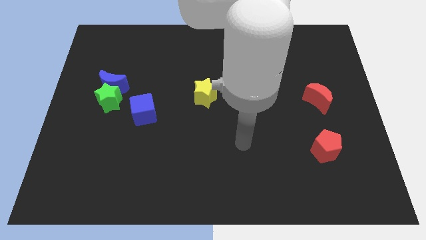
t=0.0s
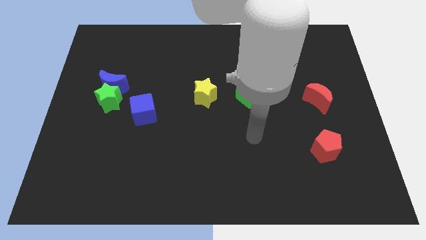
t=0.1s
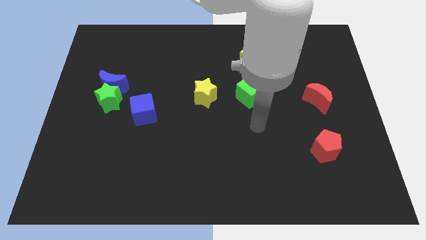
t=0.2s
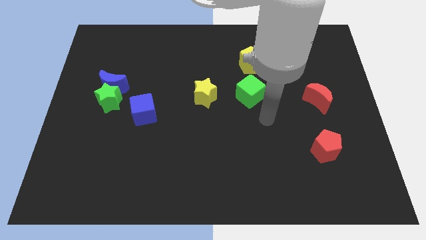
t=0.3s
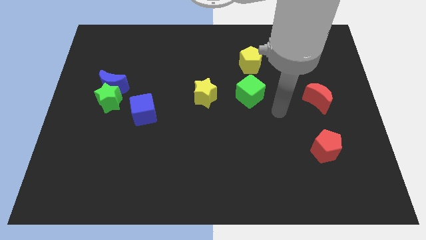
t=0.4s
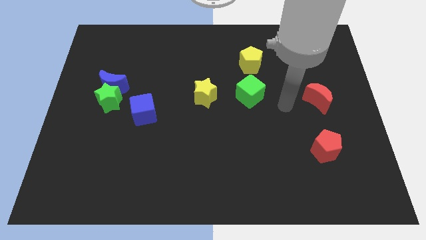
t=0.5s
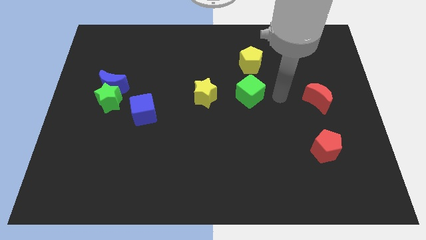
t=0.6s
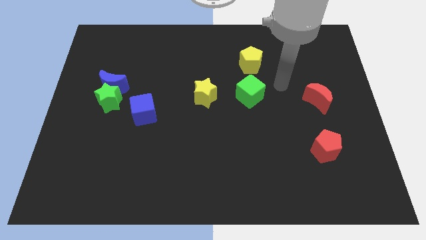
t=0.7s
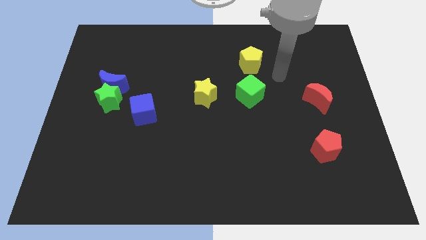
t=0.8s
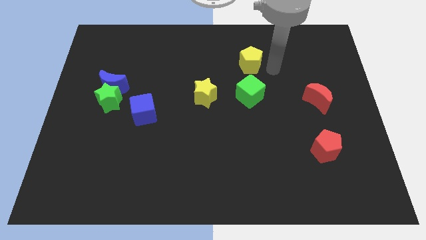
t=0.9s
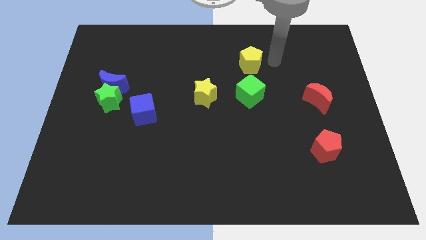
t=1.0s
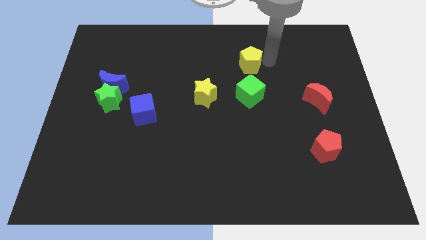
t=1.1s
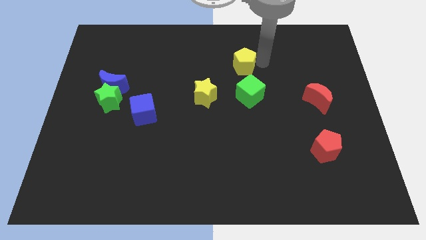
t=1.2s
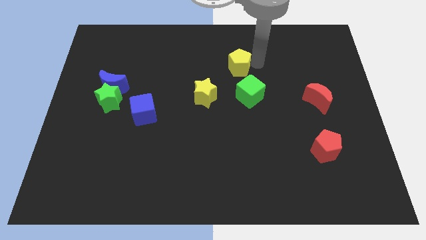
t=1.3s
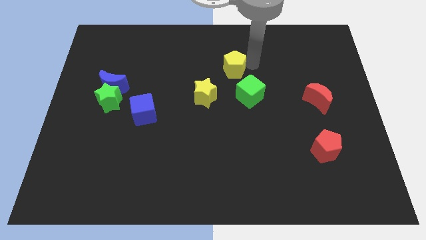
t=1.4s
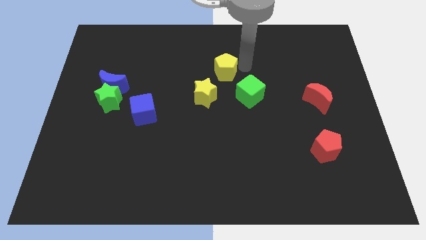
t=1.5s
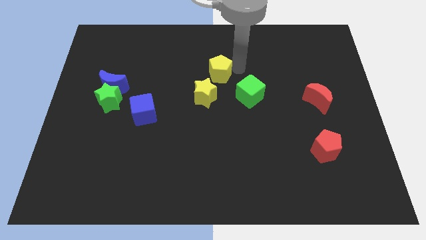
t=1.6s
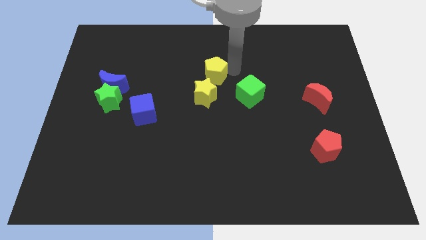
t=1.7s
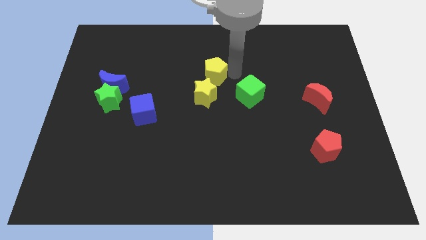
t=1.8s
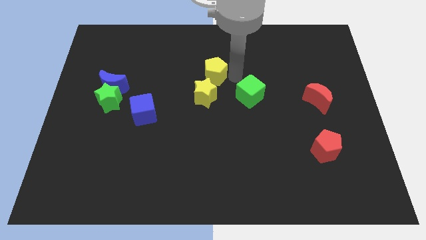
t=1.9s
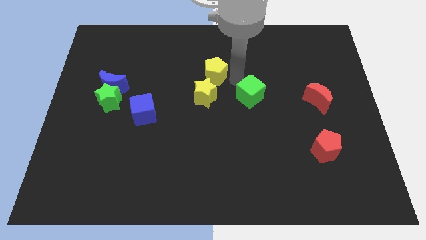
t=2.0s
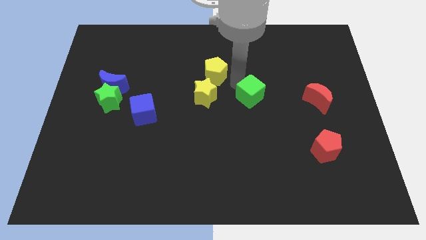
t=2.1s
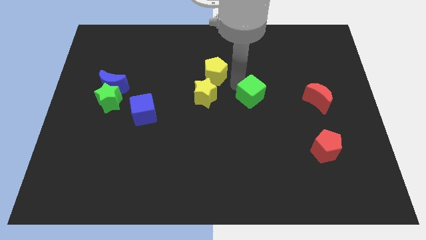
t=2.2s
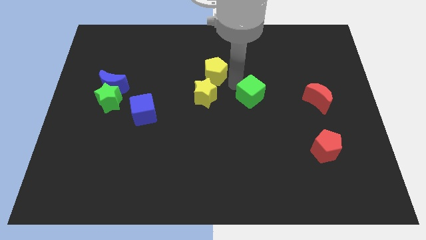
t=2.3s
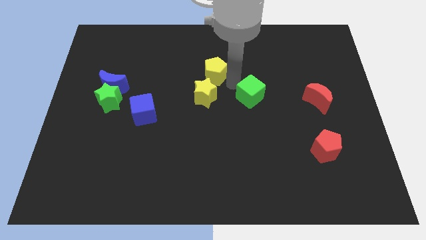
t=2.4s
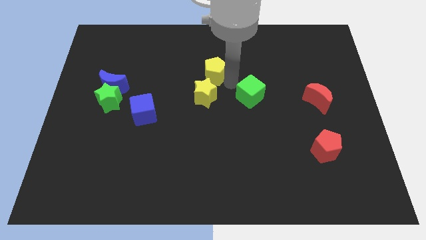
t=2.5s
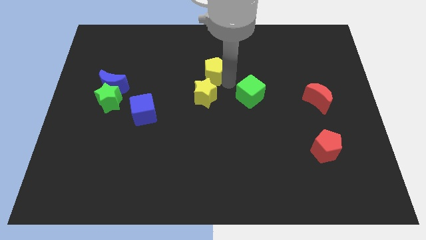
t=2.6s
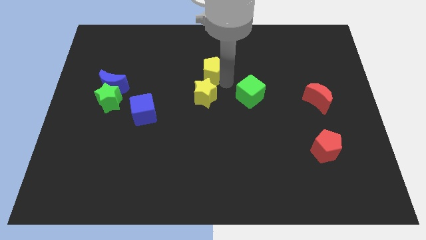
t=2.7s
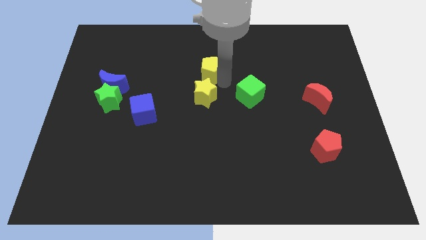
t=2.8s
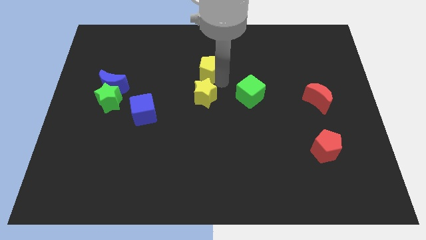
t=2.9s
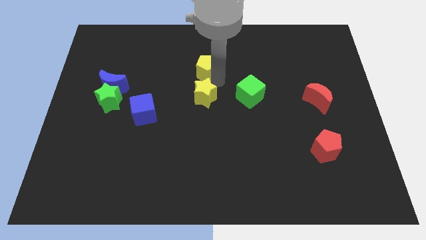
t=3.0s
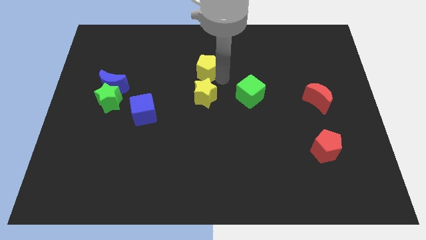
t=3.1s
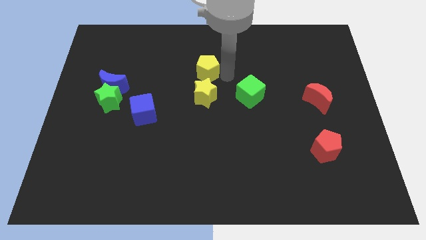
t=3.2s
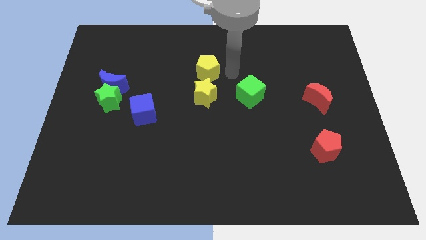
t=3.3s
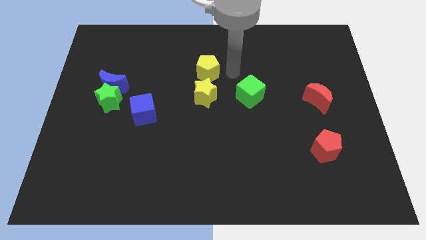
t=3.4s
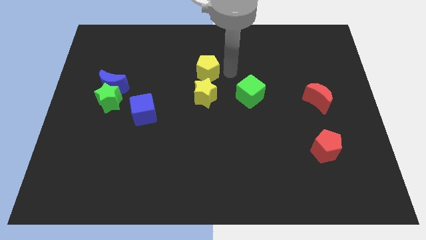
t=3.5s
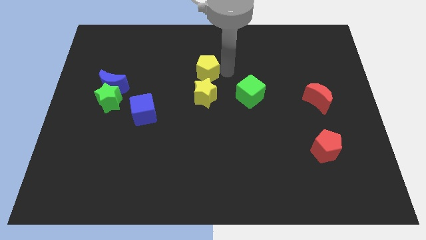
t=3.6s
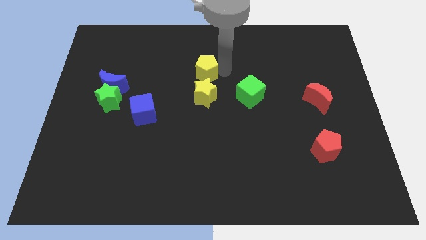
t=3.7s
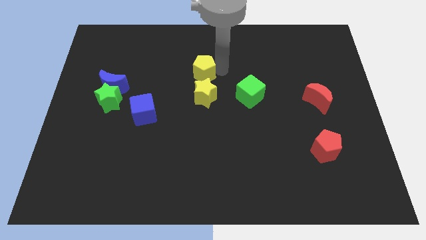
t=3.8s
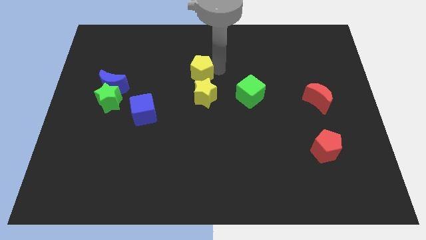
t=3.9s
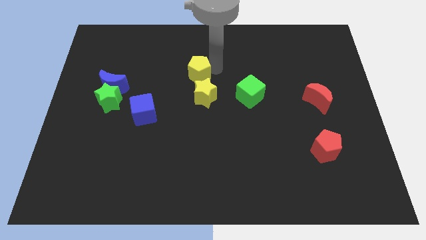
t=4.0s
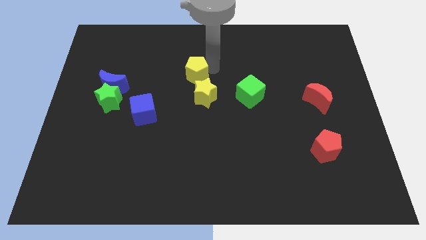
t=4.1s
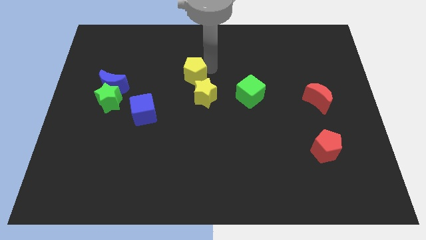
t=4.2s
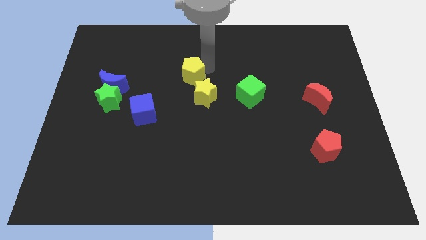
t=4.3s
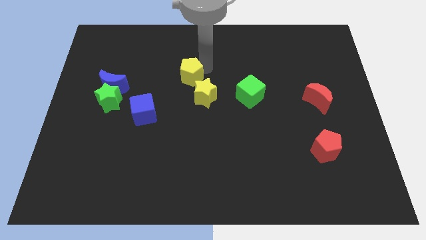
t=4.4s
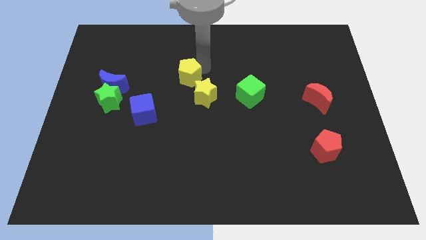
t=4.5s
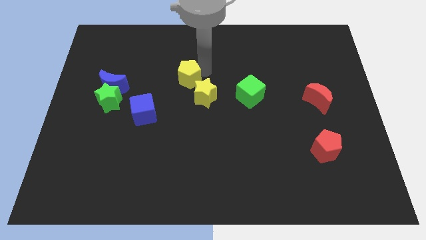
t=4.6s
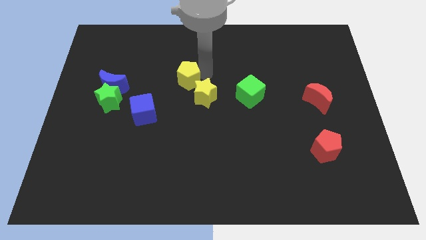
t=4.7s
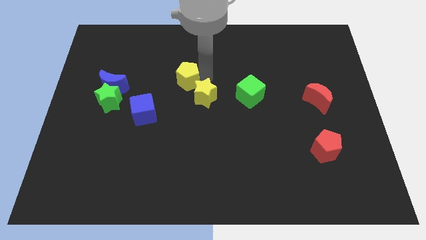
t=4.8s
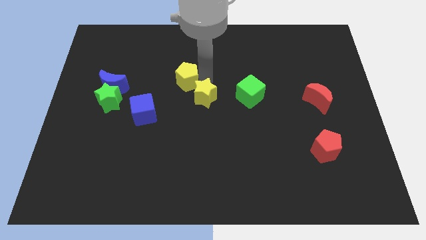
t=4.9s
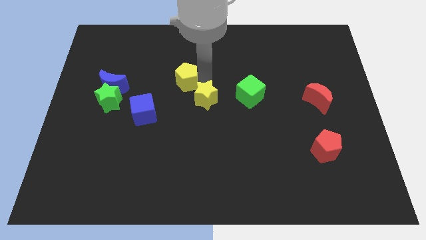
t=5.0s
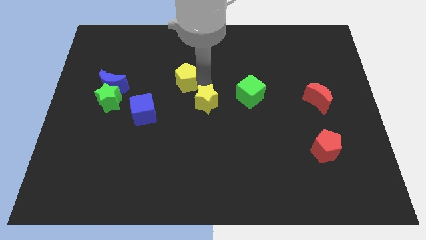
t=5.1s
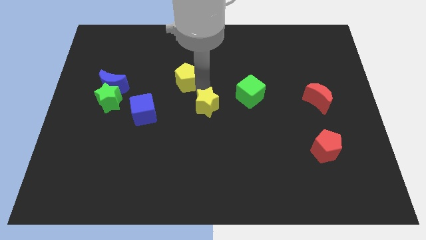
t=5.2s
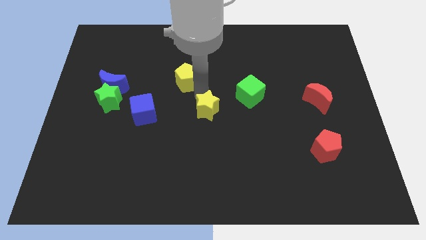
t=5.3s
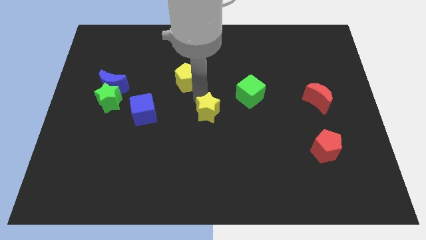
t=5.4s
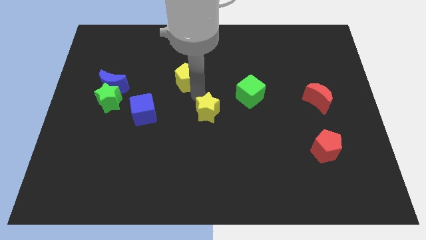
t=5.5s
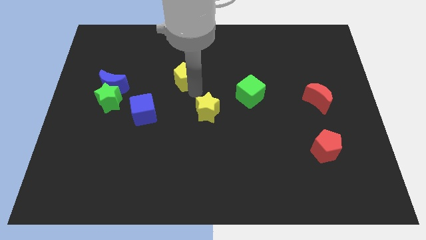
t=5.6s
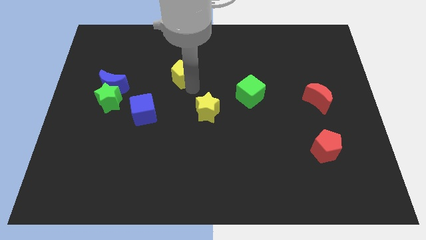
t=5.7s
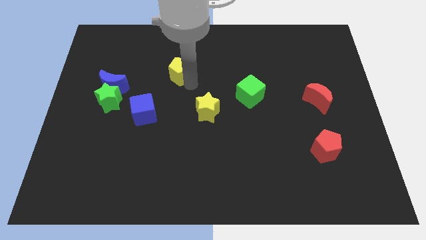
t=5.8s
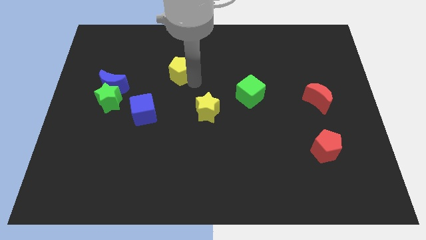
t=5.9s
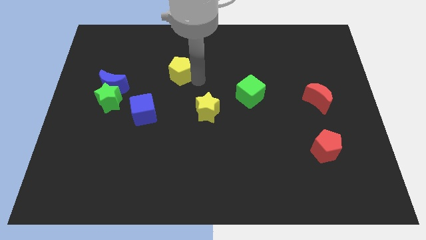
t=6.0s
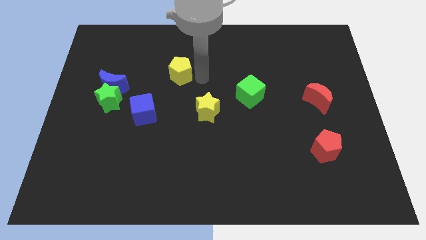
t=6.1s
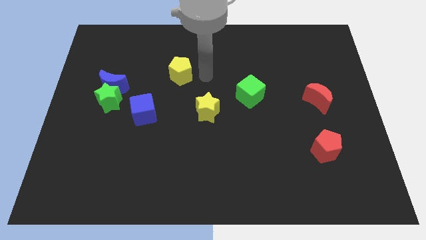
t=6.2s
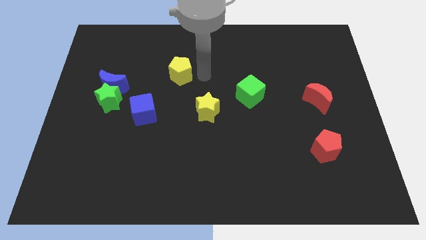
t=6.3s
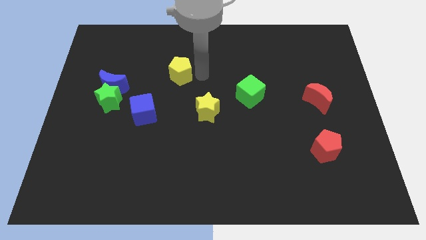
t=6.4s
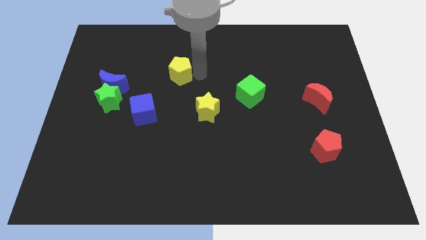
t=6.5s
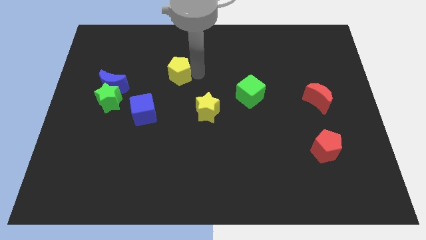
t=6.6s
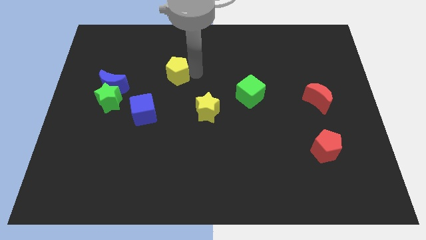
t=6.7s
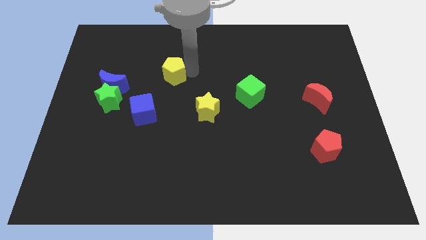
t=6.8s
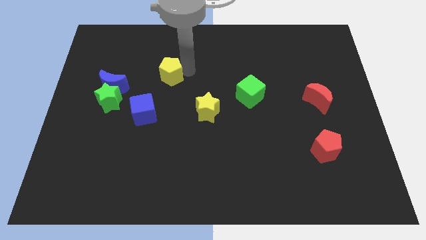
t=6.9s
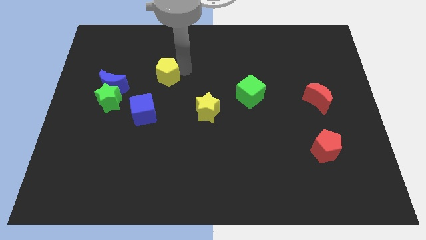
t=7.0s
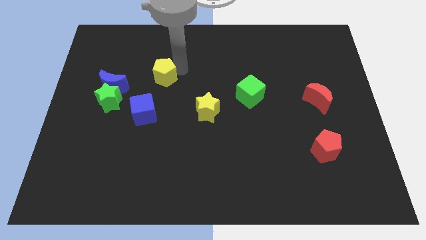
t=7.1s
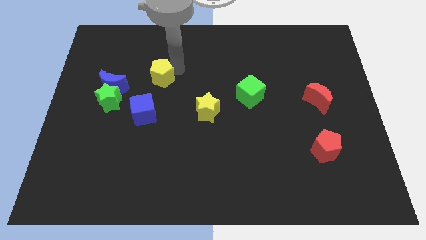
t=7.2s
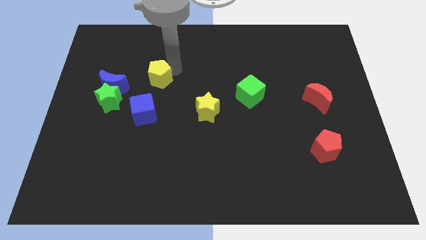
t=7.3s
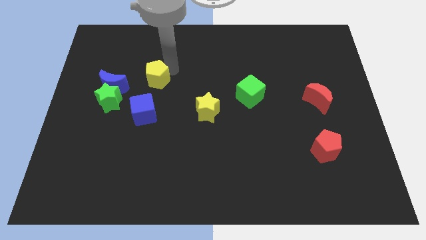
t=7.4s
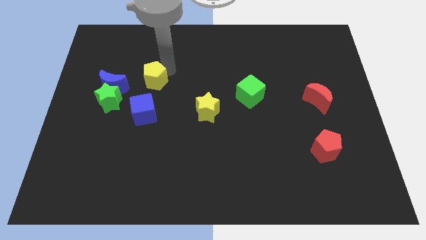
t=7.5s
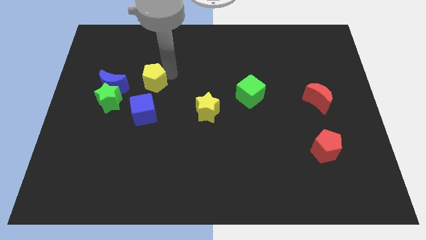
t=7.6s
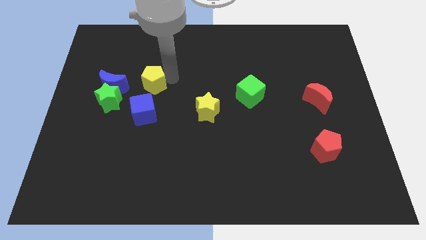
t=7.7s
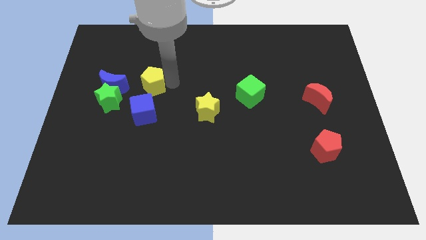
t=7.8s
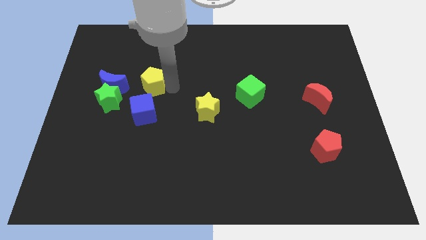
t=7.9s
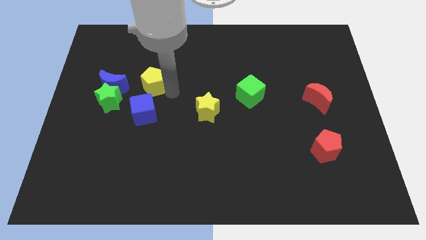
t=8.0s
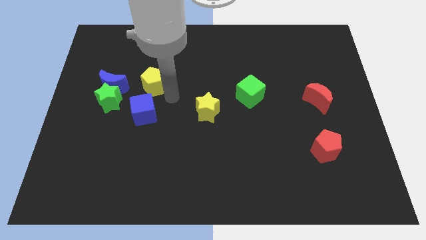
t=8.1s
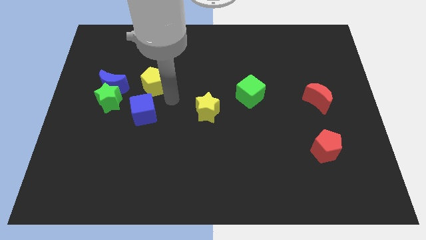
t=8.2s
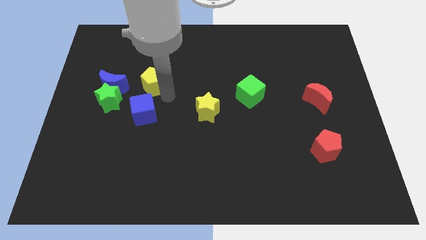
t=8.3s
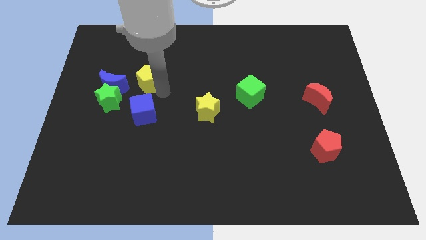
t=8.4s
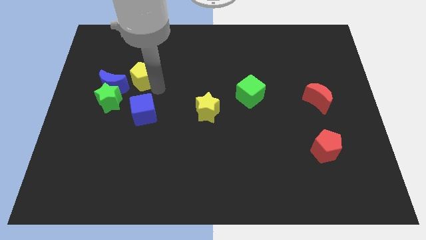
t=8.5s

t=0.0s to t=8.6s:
slide the yellow pentagon to the top right side of the blue moon
